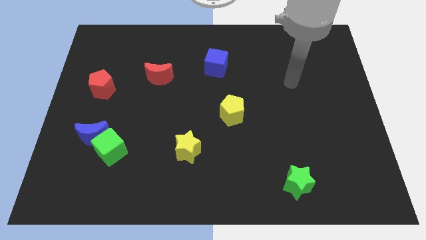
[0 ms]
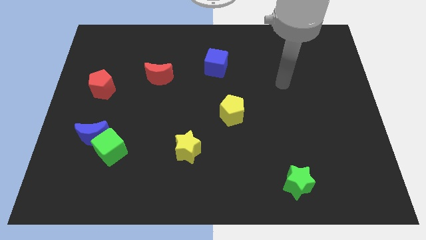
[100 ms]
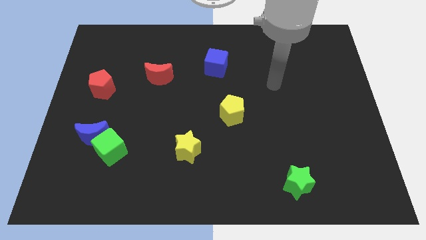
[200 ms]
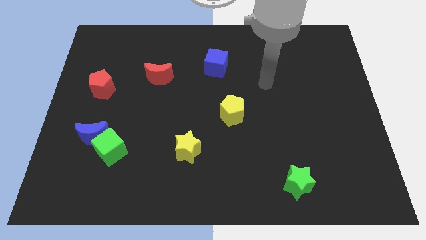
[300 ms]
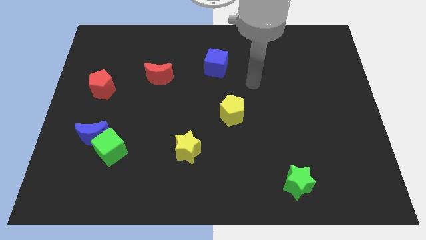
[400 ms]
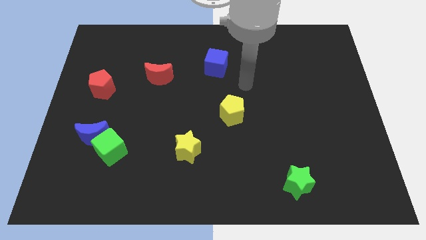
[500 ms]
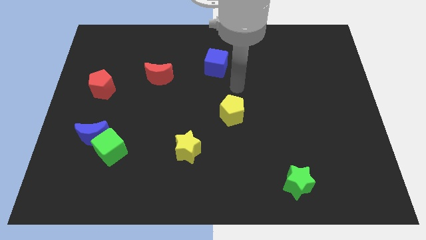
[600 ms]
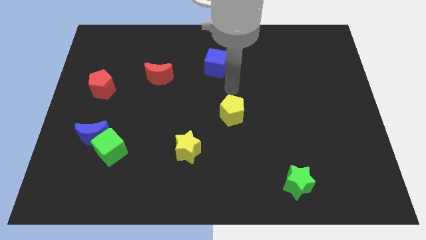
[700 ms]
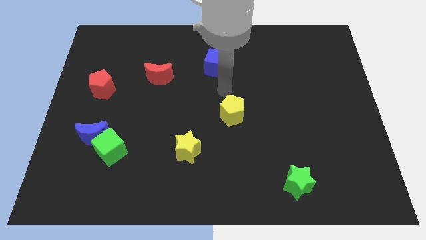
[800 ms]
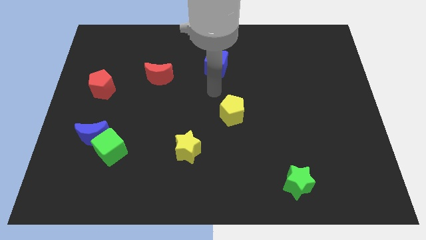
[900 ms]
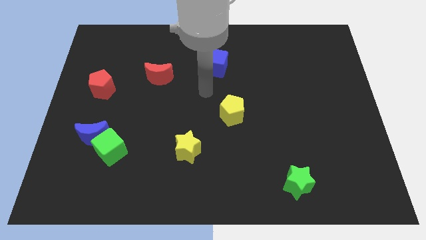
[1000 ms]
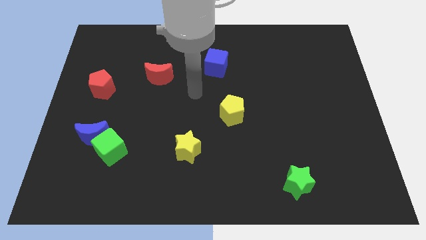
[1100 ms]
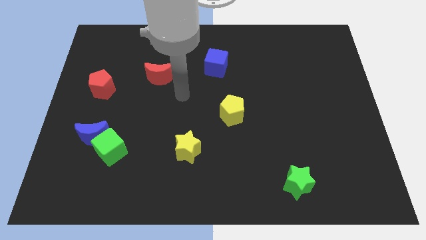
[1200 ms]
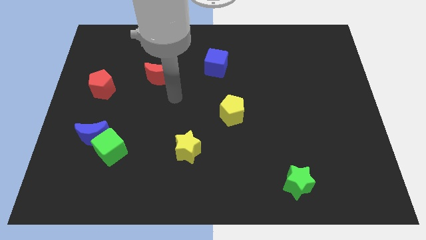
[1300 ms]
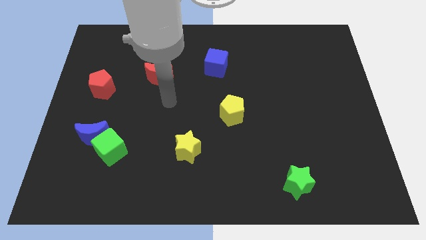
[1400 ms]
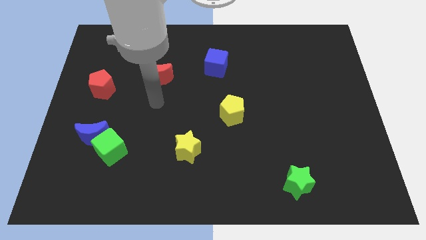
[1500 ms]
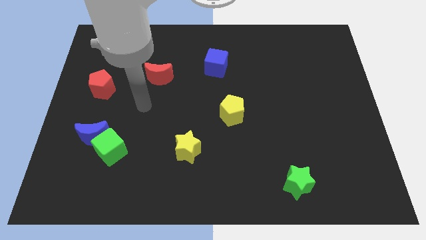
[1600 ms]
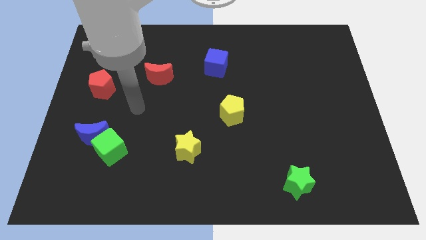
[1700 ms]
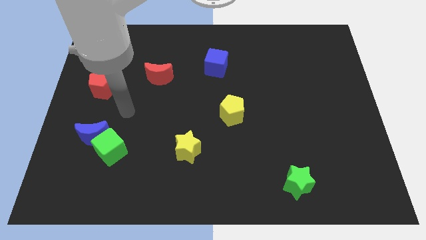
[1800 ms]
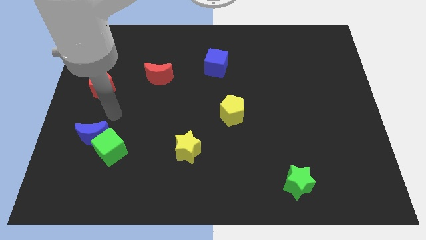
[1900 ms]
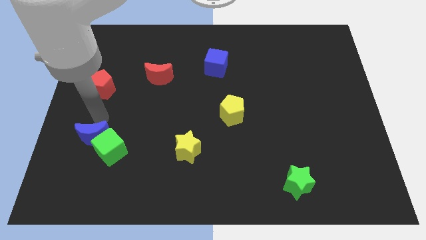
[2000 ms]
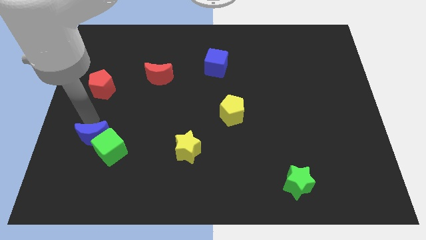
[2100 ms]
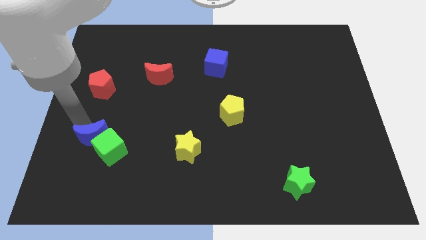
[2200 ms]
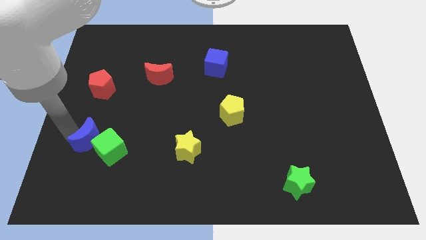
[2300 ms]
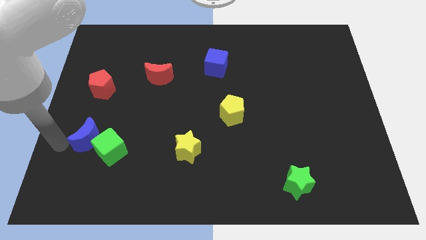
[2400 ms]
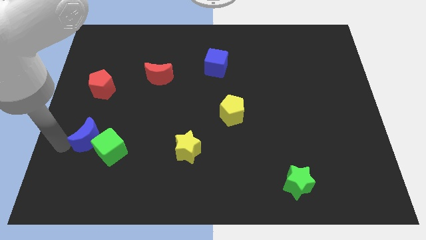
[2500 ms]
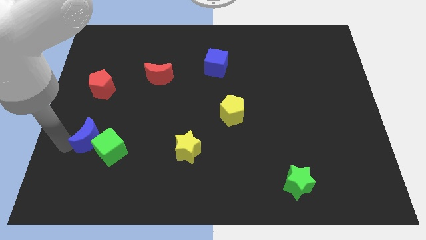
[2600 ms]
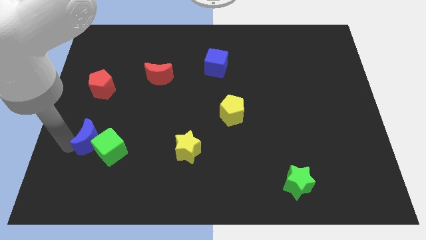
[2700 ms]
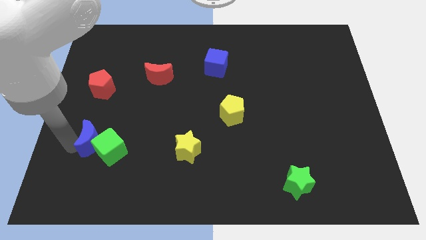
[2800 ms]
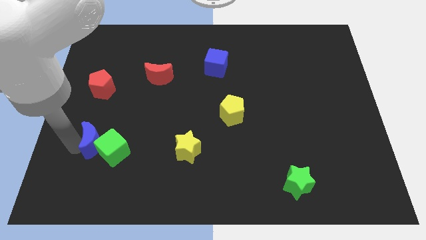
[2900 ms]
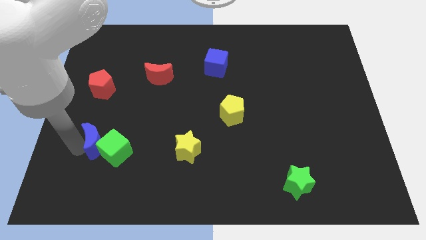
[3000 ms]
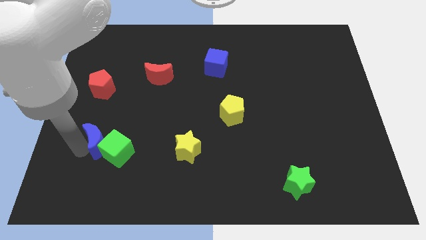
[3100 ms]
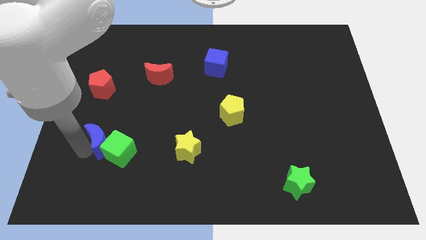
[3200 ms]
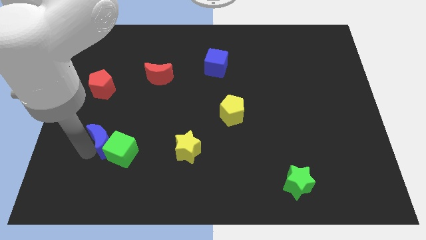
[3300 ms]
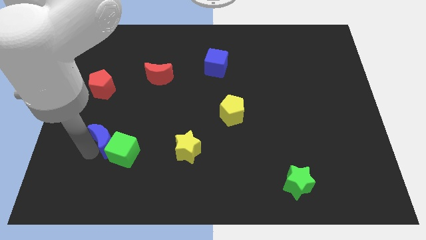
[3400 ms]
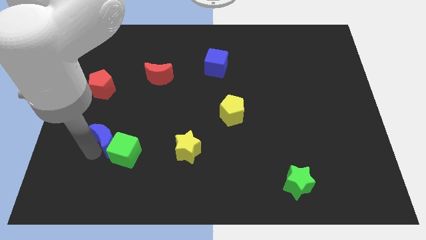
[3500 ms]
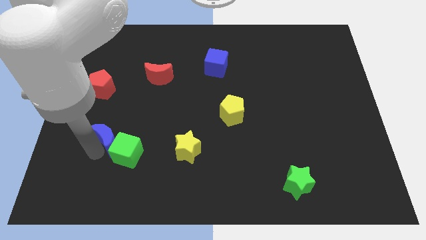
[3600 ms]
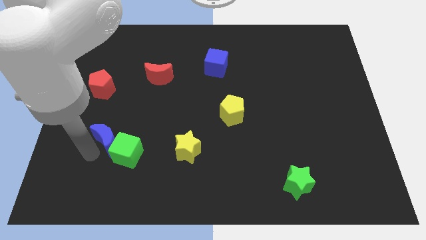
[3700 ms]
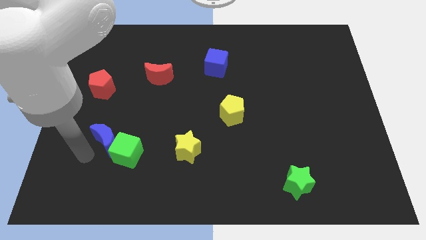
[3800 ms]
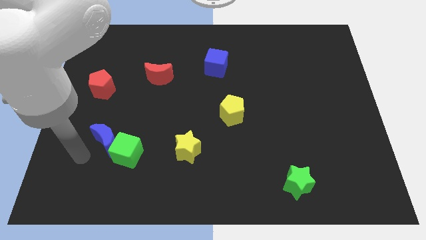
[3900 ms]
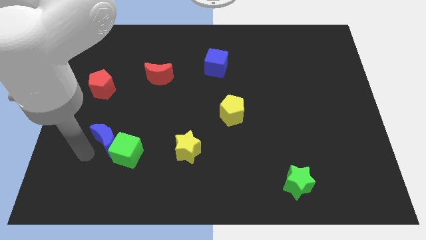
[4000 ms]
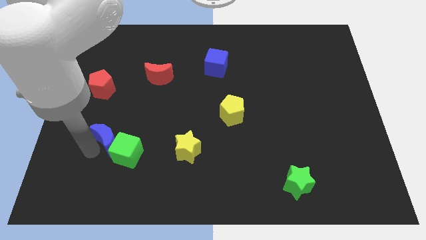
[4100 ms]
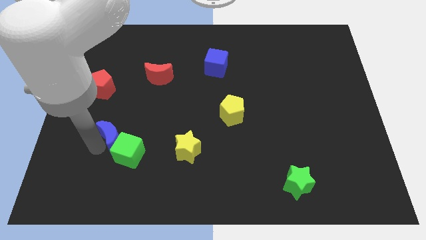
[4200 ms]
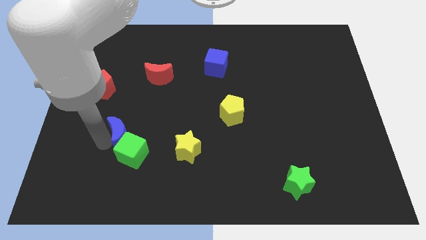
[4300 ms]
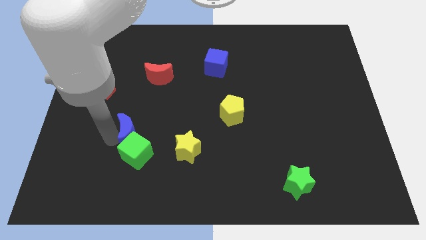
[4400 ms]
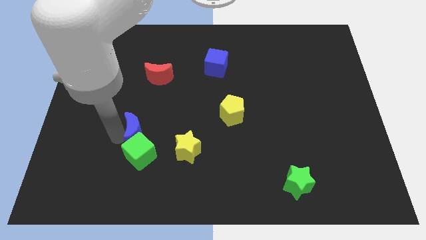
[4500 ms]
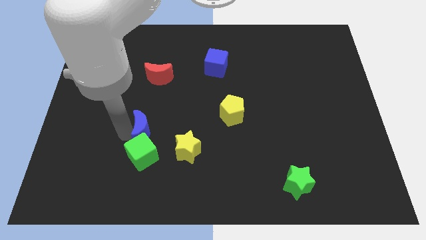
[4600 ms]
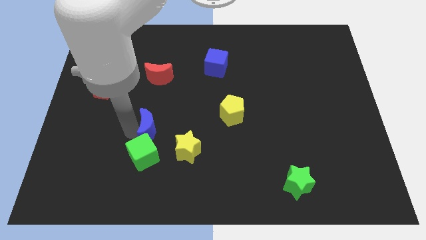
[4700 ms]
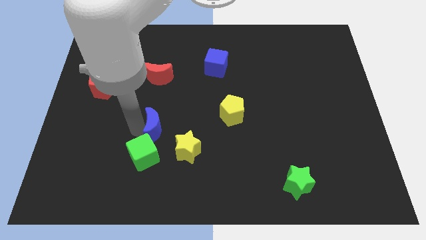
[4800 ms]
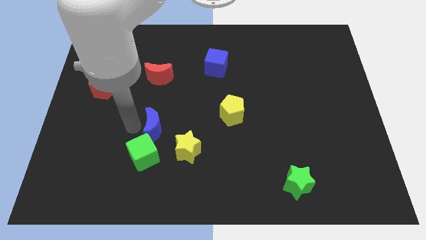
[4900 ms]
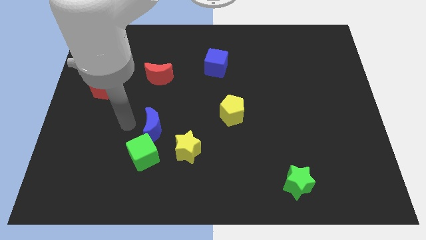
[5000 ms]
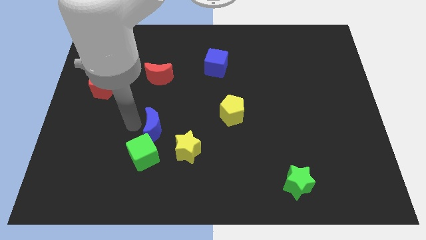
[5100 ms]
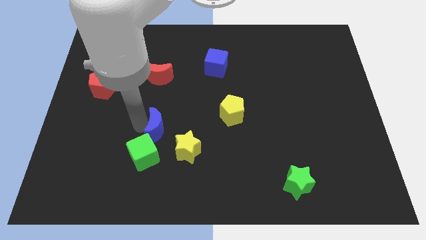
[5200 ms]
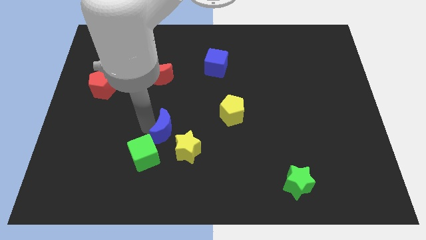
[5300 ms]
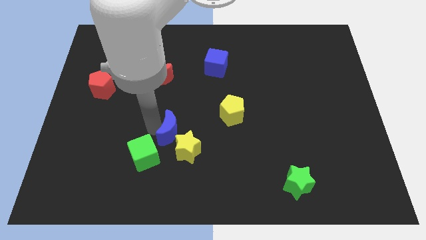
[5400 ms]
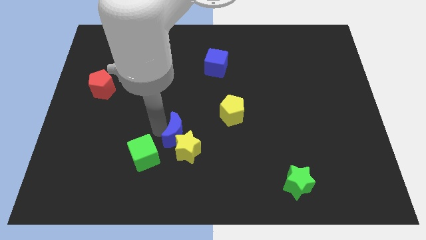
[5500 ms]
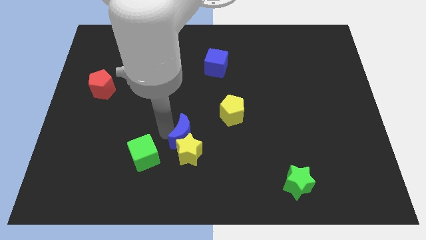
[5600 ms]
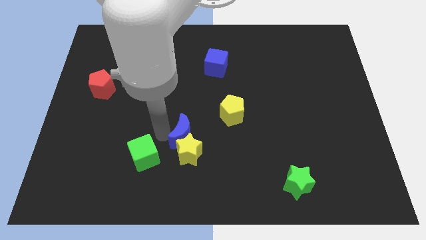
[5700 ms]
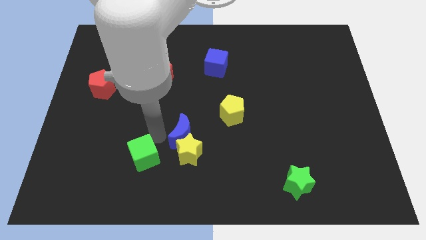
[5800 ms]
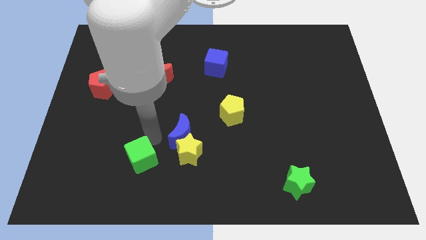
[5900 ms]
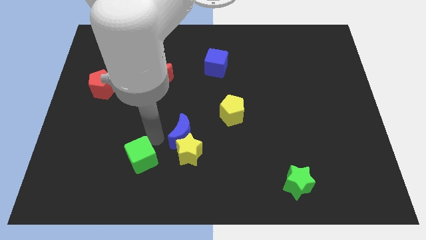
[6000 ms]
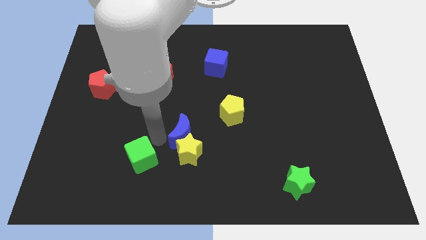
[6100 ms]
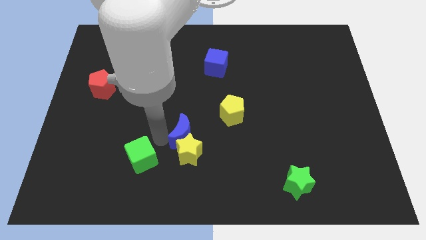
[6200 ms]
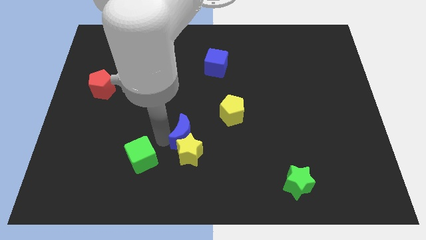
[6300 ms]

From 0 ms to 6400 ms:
slide the blue moon to the right

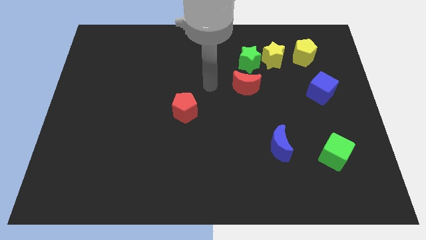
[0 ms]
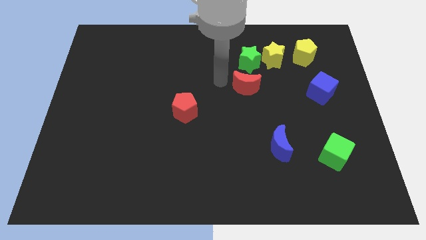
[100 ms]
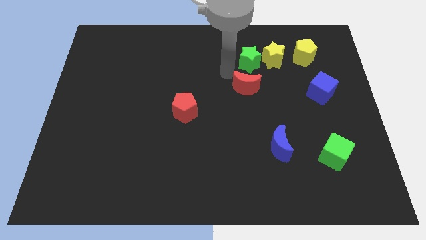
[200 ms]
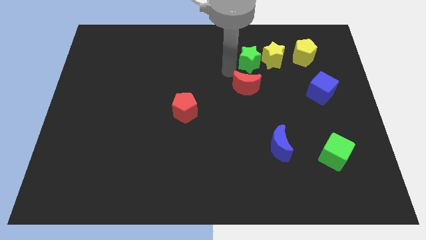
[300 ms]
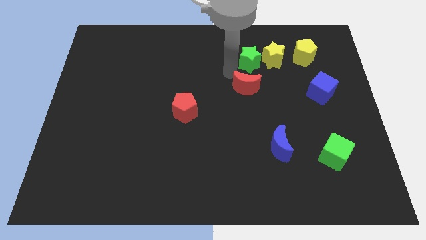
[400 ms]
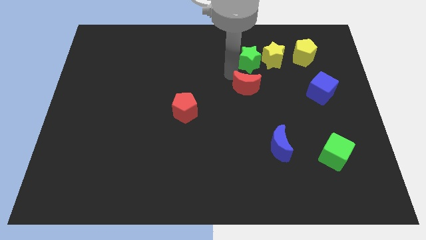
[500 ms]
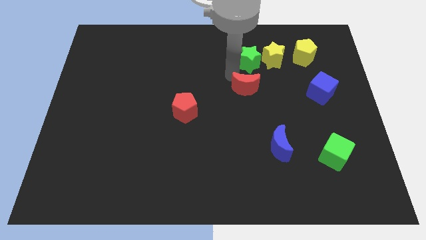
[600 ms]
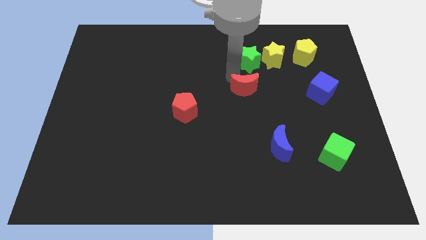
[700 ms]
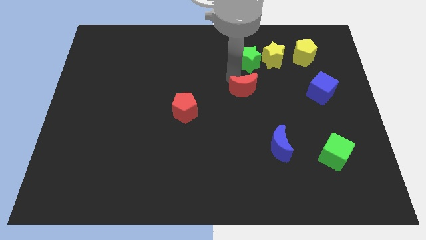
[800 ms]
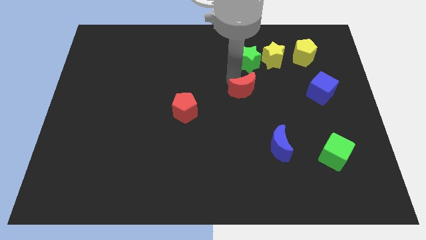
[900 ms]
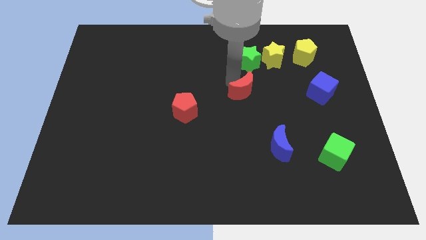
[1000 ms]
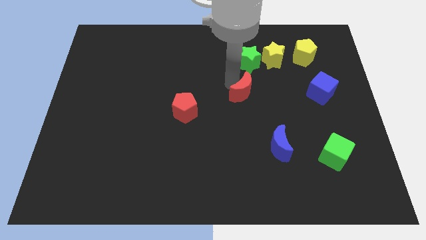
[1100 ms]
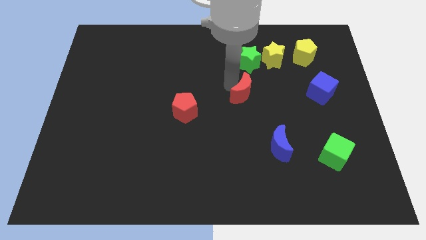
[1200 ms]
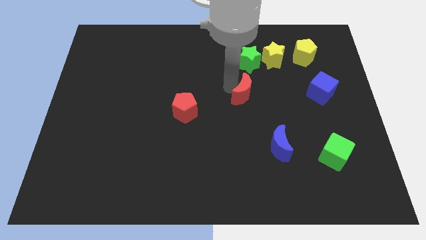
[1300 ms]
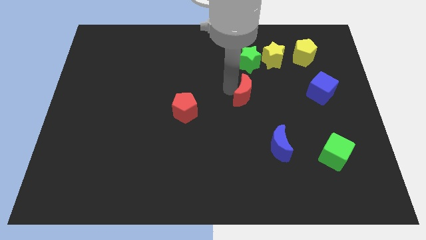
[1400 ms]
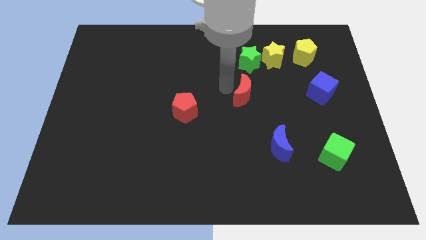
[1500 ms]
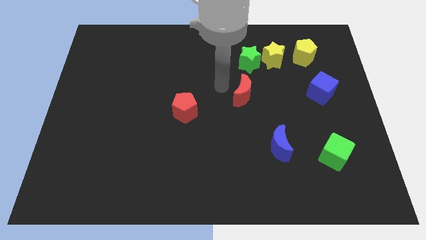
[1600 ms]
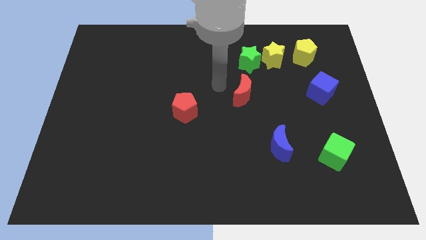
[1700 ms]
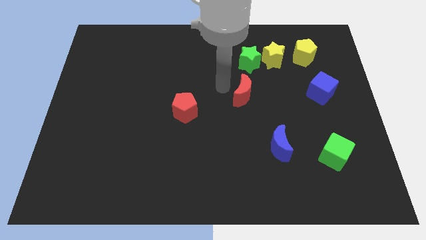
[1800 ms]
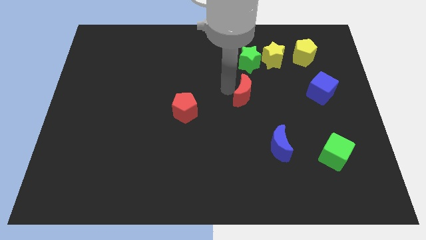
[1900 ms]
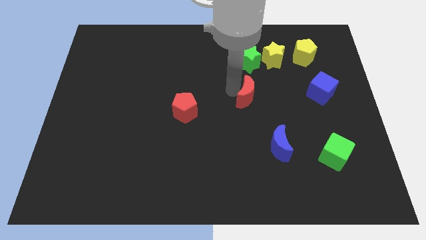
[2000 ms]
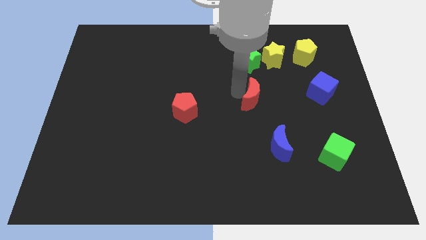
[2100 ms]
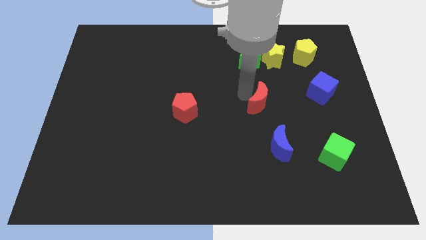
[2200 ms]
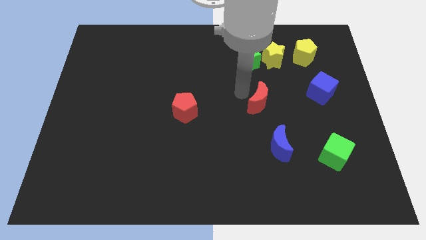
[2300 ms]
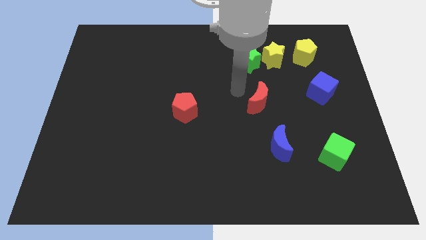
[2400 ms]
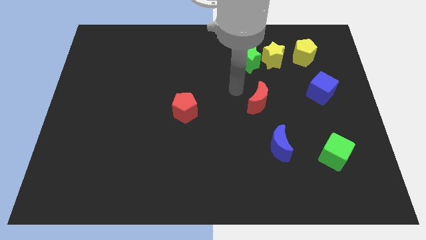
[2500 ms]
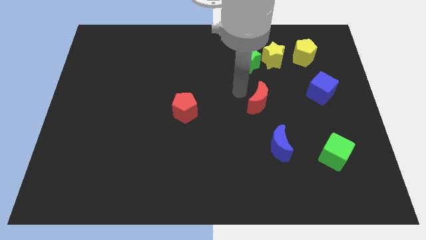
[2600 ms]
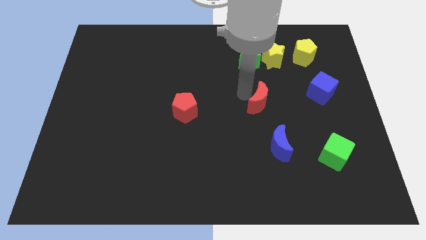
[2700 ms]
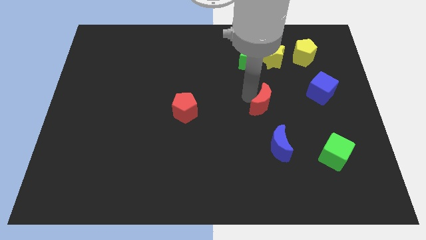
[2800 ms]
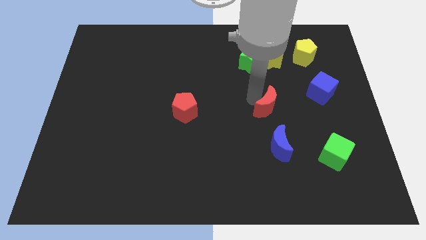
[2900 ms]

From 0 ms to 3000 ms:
move the red moon a little down and right diagonally
